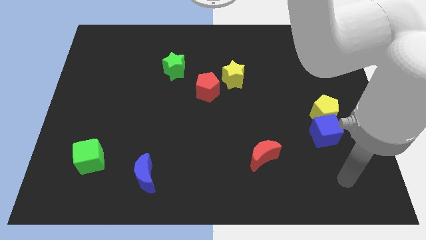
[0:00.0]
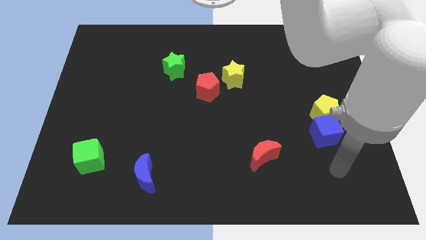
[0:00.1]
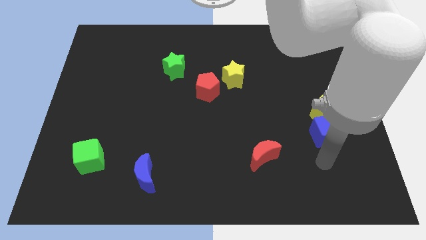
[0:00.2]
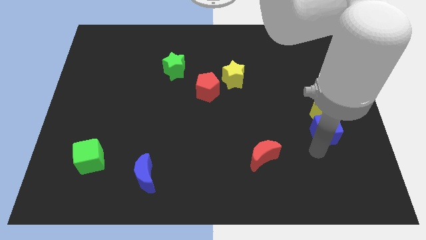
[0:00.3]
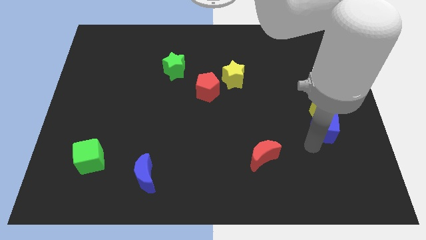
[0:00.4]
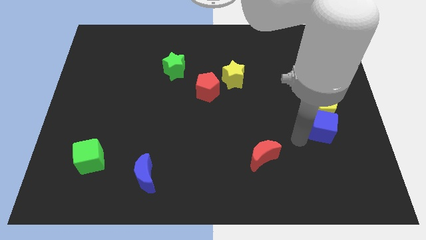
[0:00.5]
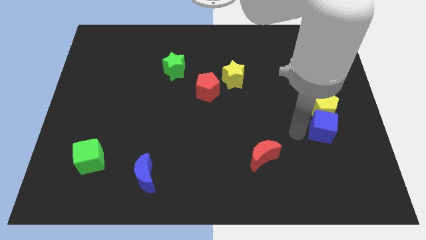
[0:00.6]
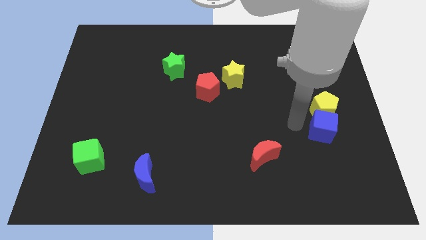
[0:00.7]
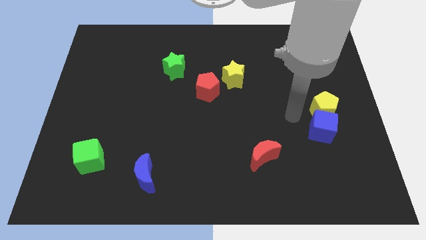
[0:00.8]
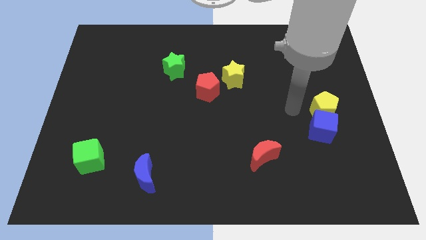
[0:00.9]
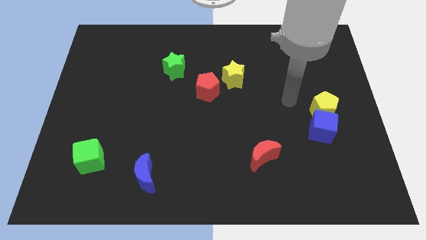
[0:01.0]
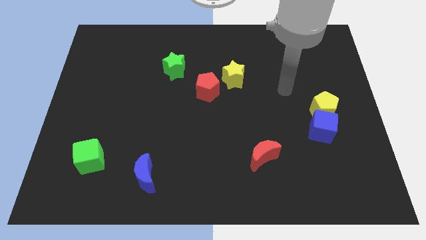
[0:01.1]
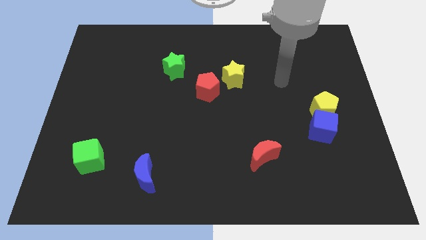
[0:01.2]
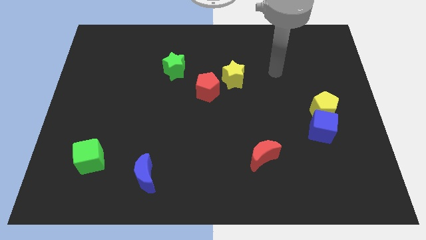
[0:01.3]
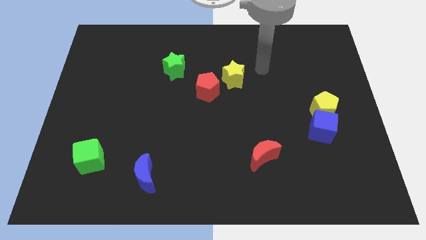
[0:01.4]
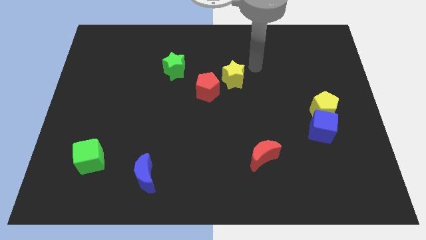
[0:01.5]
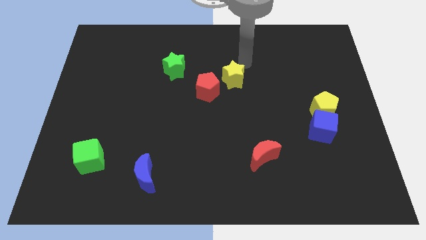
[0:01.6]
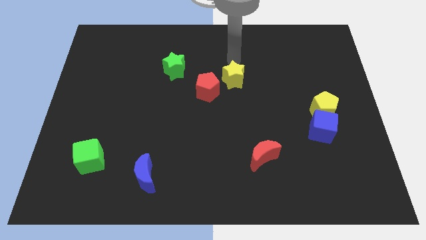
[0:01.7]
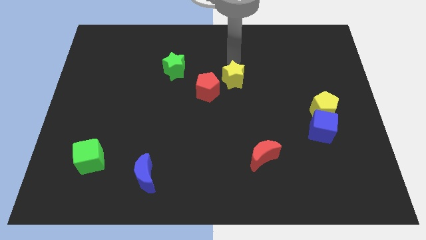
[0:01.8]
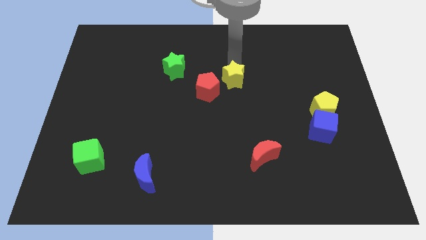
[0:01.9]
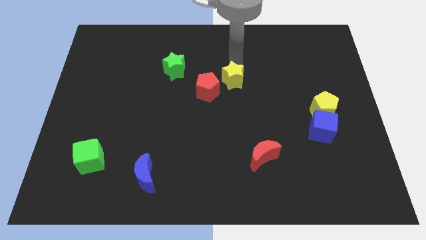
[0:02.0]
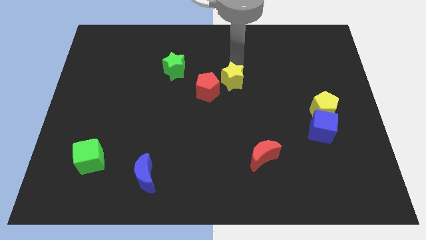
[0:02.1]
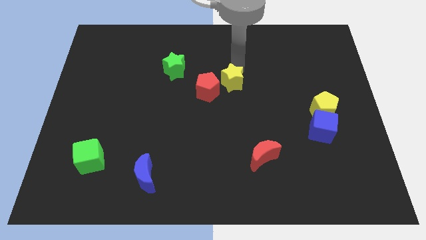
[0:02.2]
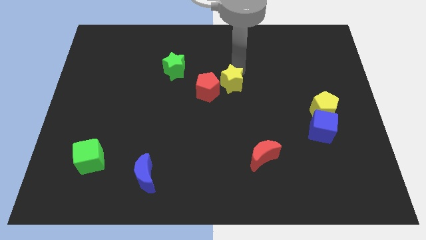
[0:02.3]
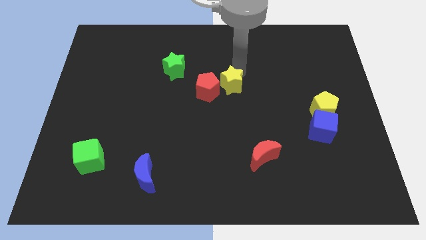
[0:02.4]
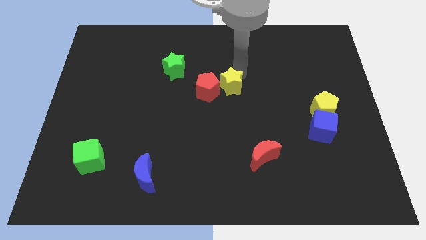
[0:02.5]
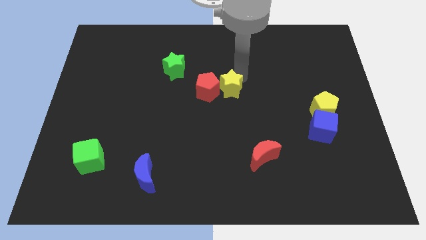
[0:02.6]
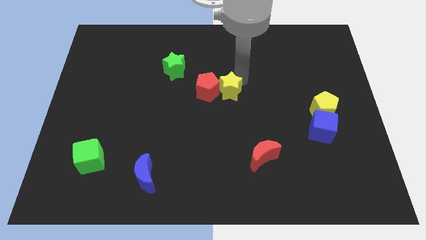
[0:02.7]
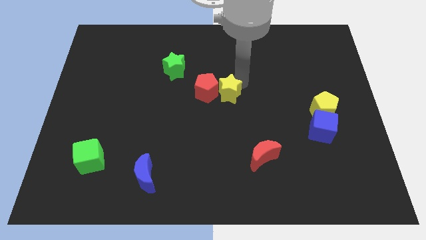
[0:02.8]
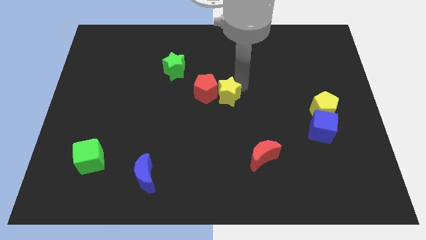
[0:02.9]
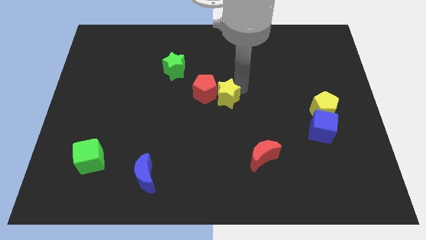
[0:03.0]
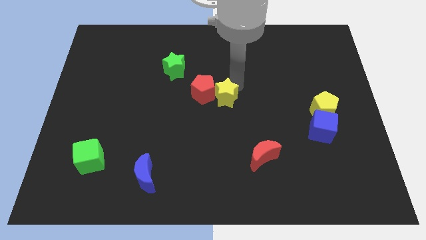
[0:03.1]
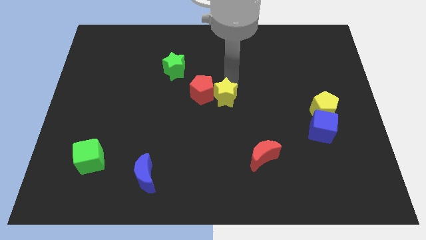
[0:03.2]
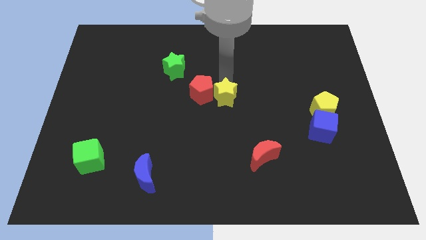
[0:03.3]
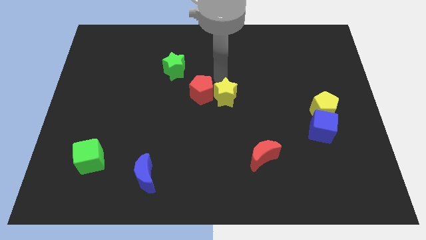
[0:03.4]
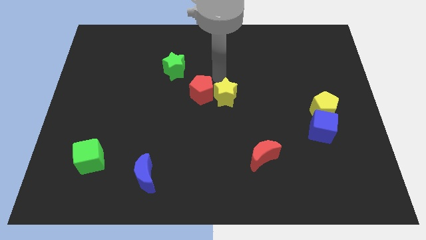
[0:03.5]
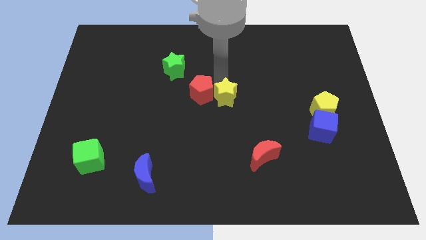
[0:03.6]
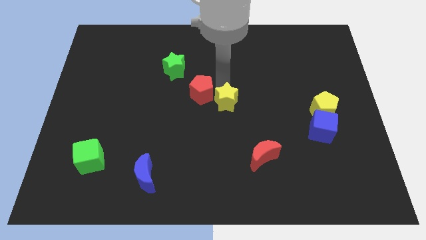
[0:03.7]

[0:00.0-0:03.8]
slide the yellow star somewhat downwards

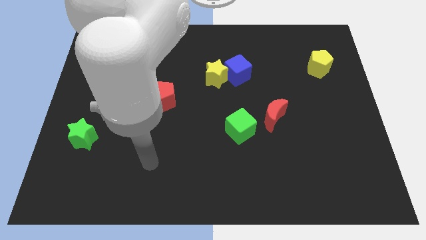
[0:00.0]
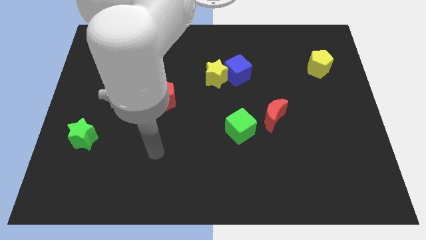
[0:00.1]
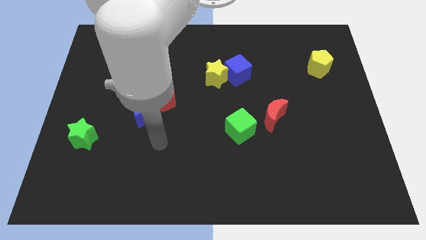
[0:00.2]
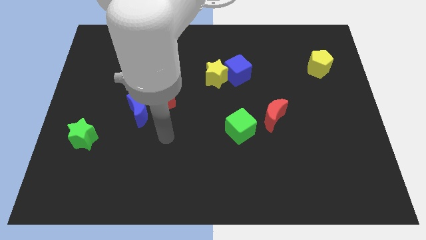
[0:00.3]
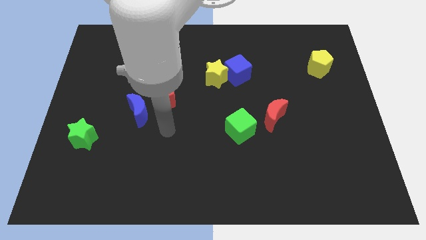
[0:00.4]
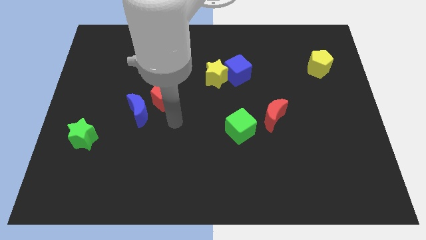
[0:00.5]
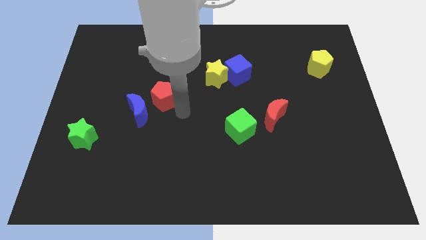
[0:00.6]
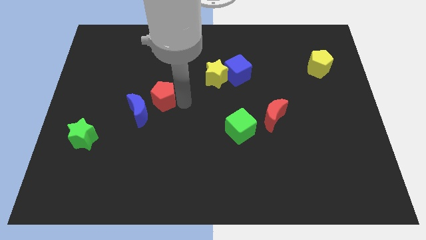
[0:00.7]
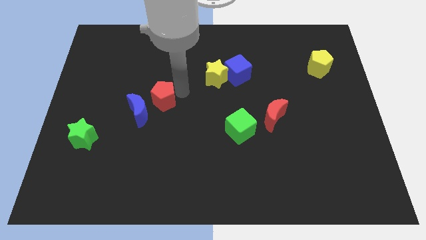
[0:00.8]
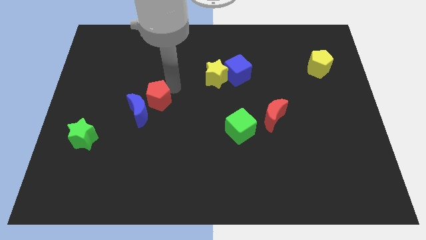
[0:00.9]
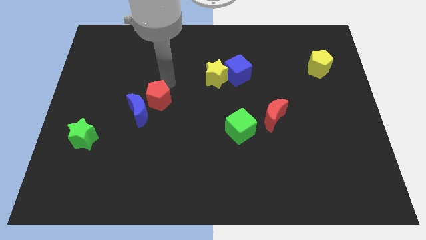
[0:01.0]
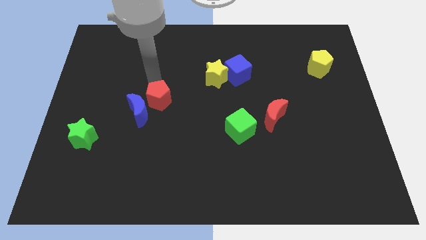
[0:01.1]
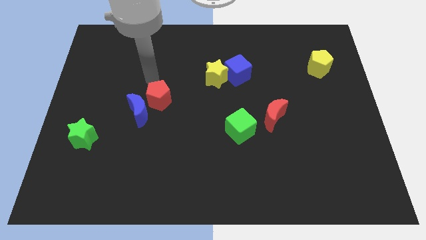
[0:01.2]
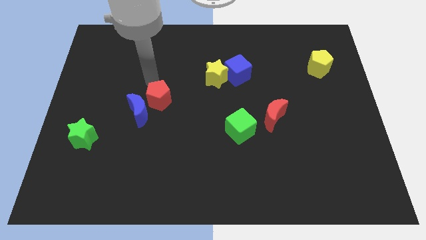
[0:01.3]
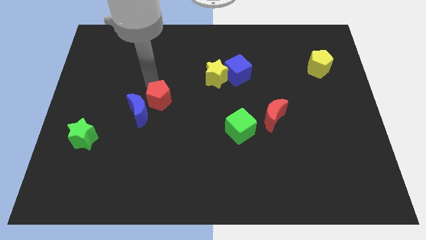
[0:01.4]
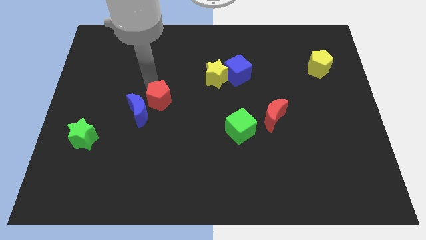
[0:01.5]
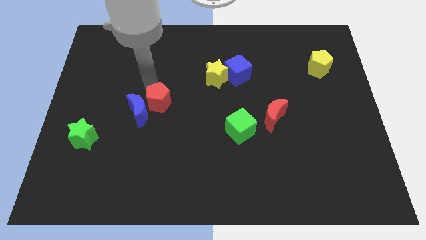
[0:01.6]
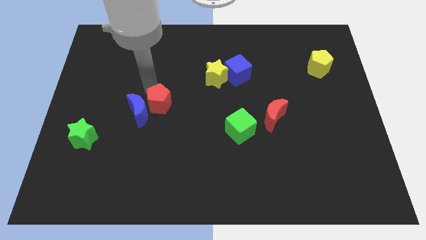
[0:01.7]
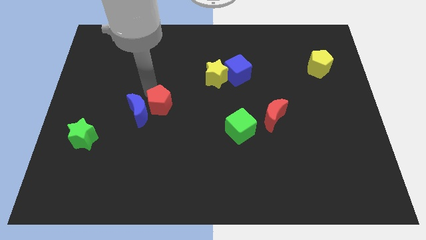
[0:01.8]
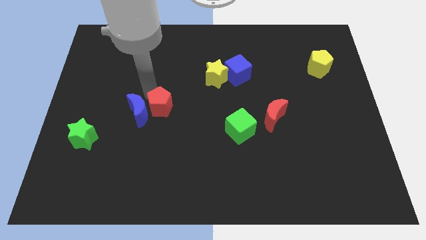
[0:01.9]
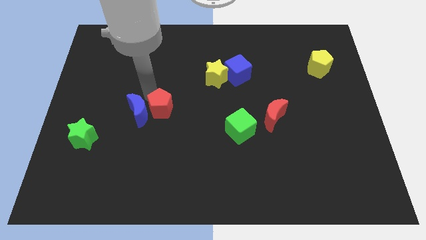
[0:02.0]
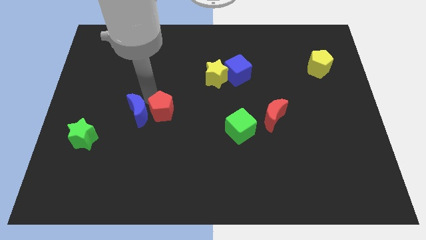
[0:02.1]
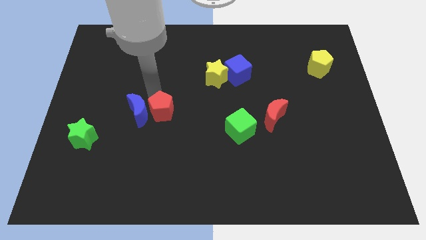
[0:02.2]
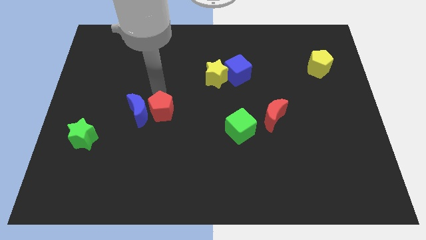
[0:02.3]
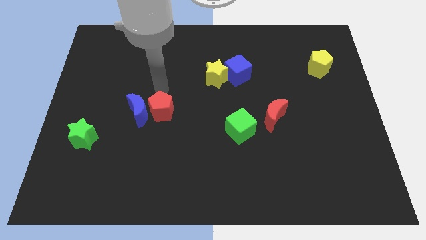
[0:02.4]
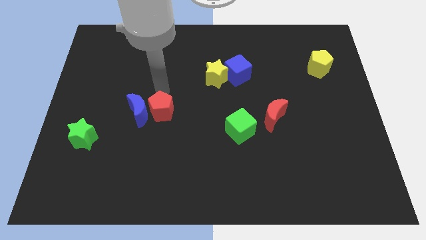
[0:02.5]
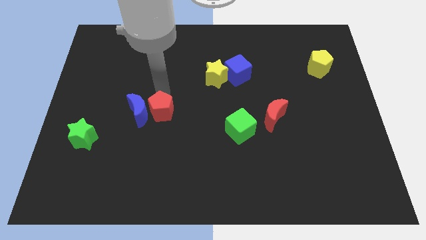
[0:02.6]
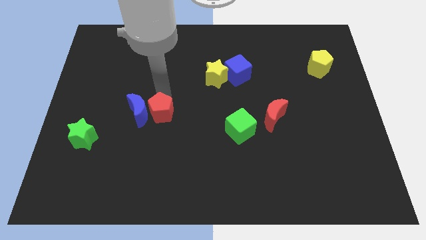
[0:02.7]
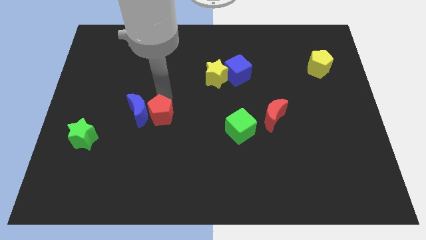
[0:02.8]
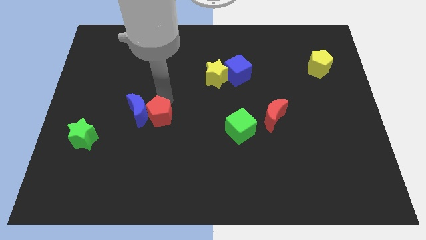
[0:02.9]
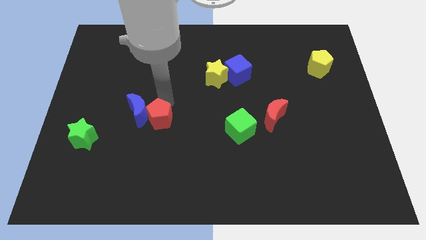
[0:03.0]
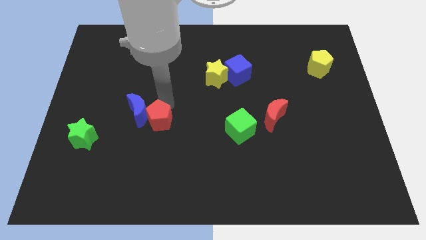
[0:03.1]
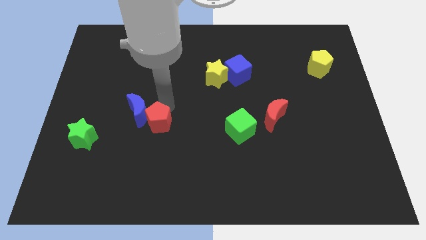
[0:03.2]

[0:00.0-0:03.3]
slightly move the red pentagon downwards

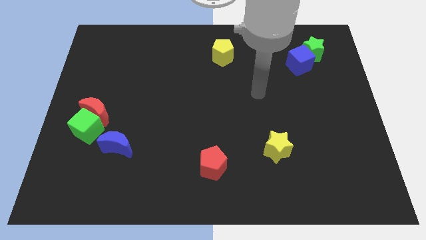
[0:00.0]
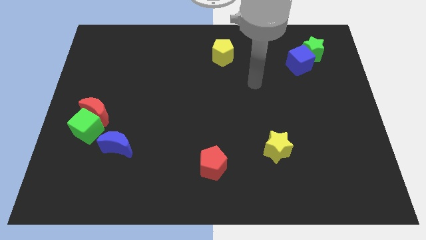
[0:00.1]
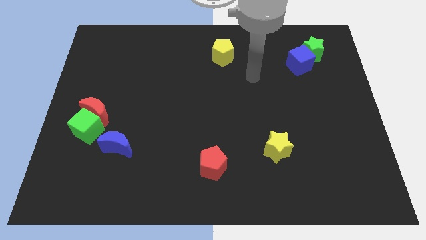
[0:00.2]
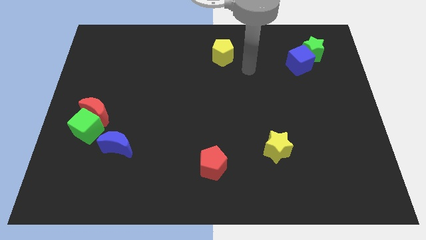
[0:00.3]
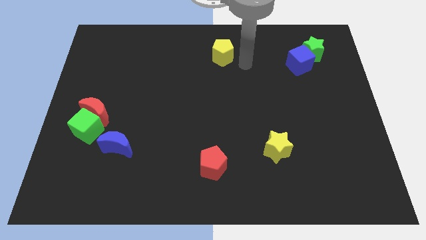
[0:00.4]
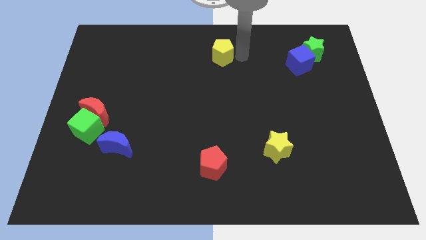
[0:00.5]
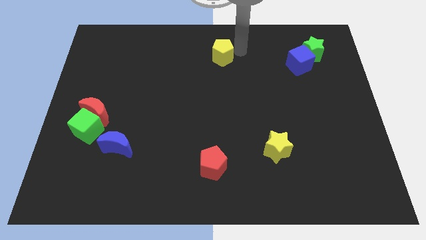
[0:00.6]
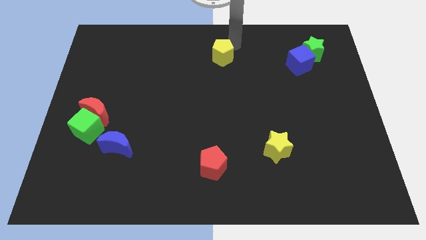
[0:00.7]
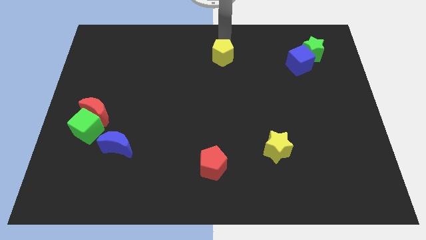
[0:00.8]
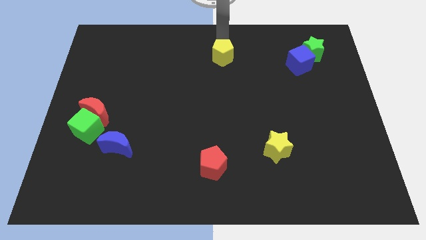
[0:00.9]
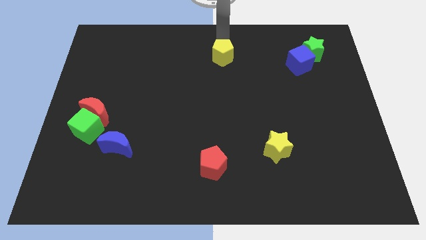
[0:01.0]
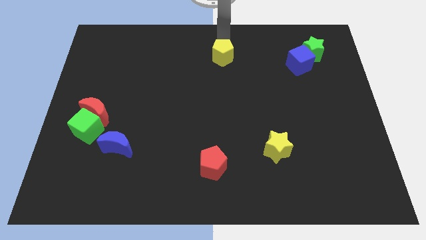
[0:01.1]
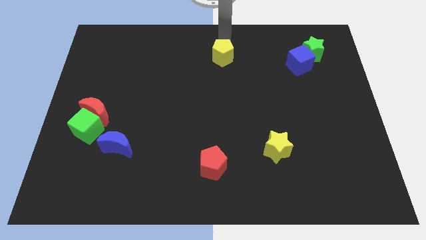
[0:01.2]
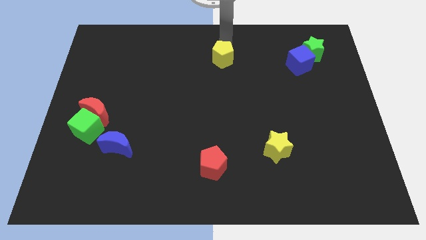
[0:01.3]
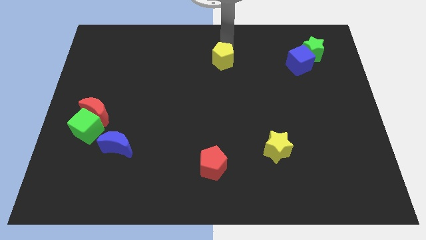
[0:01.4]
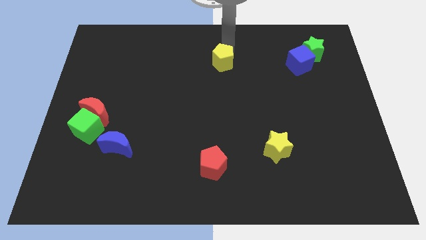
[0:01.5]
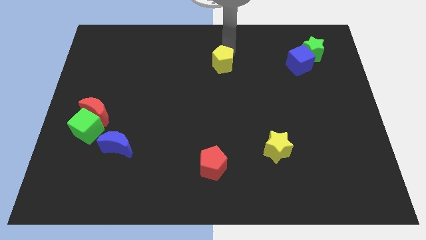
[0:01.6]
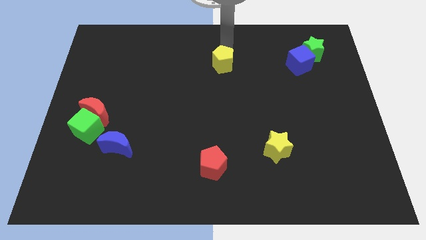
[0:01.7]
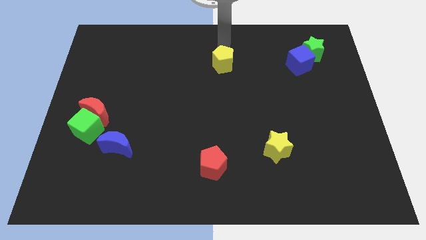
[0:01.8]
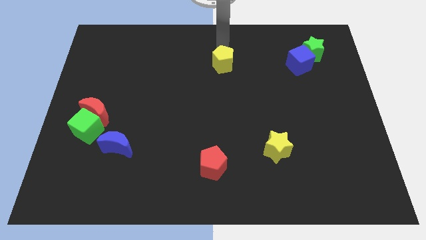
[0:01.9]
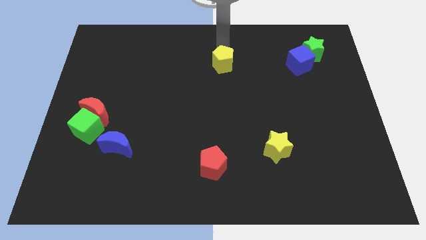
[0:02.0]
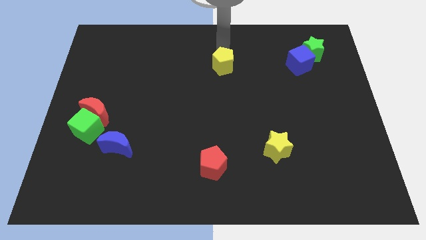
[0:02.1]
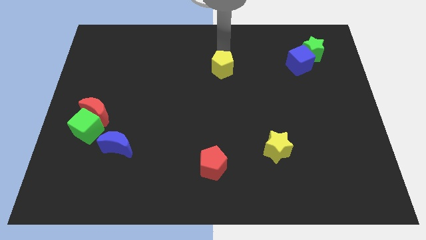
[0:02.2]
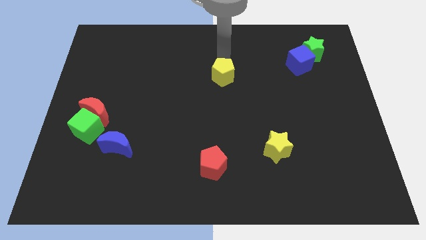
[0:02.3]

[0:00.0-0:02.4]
move the yellow pentagon down a bit
